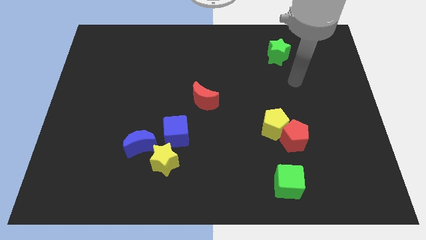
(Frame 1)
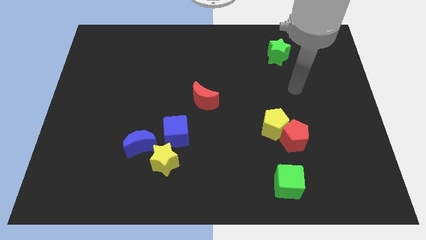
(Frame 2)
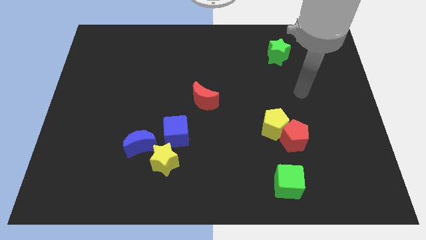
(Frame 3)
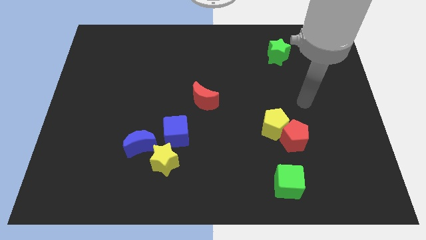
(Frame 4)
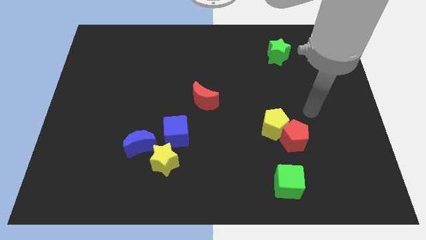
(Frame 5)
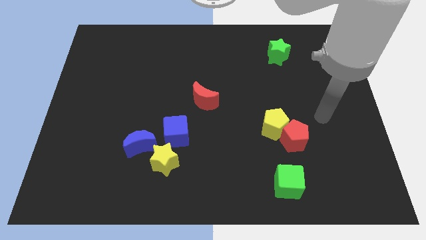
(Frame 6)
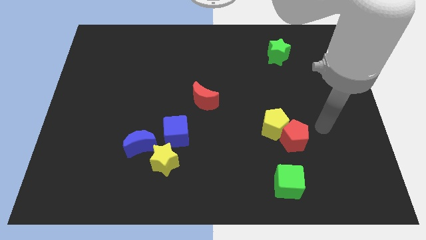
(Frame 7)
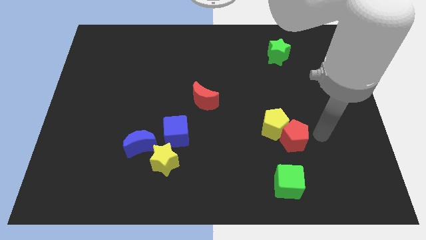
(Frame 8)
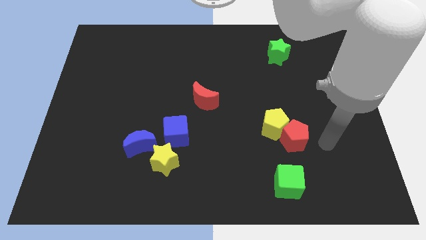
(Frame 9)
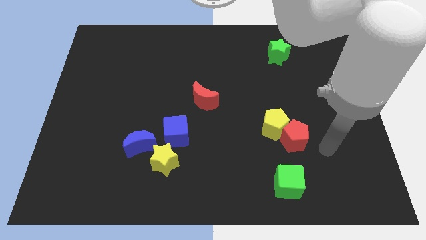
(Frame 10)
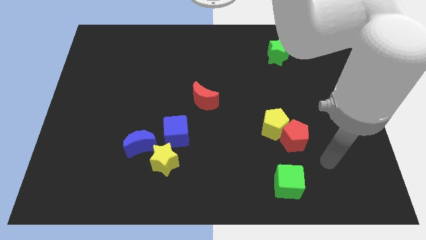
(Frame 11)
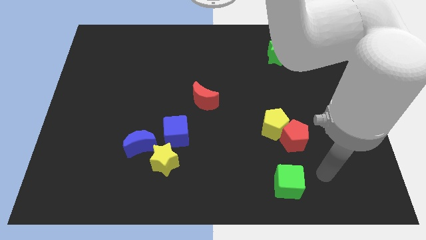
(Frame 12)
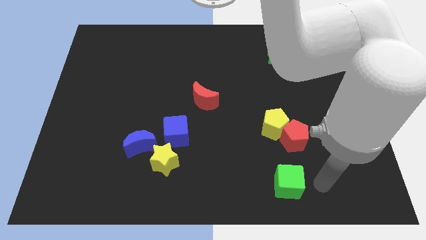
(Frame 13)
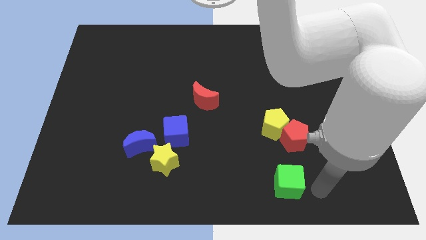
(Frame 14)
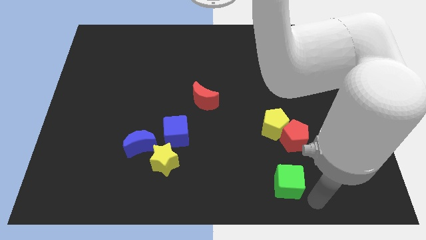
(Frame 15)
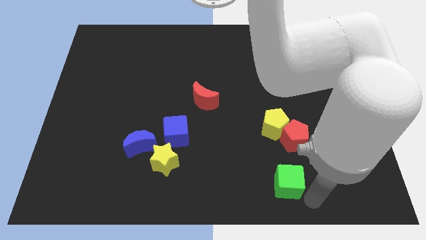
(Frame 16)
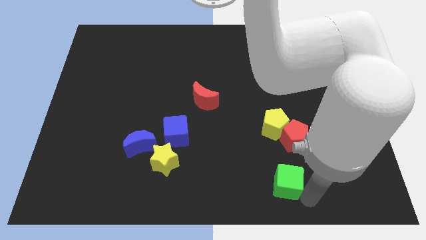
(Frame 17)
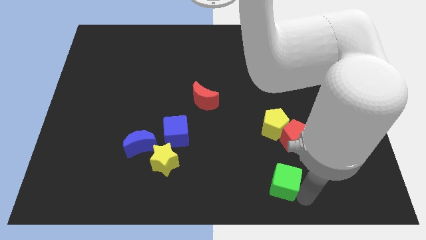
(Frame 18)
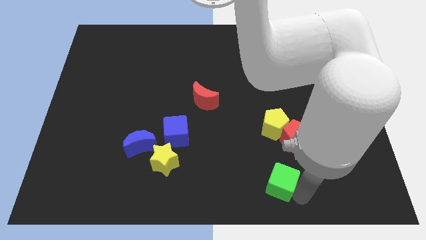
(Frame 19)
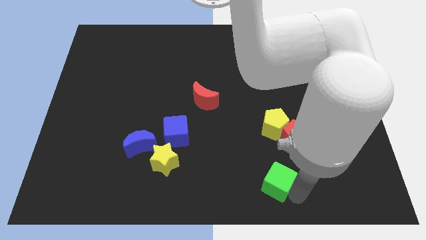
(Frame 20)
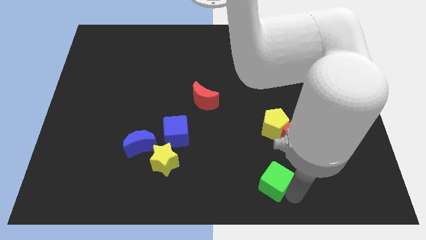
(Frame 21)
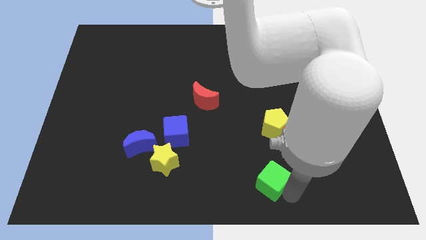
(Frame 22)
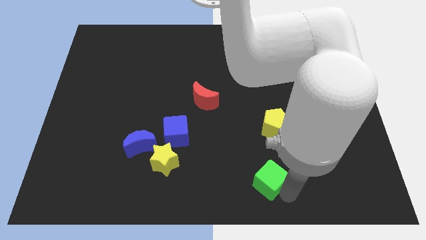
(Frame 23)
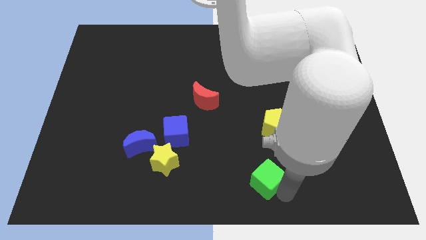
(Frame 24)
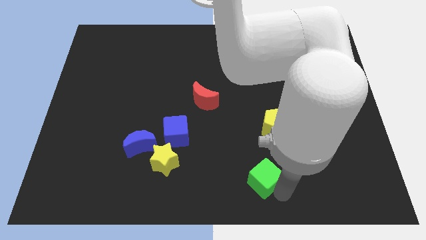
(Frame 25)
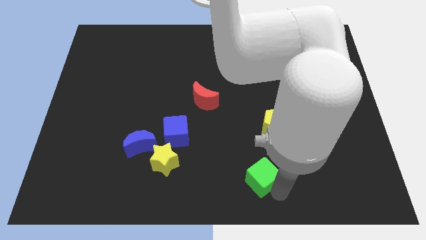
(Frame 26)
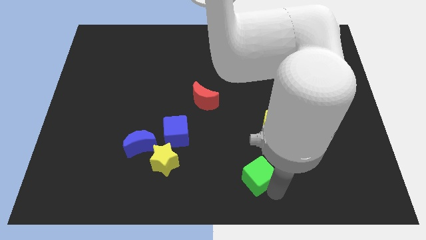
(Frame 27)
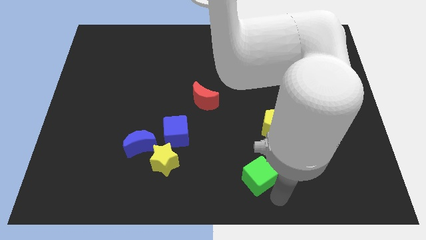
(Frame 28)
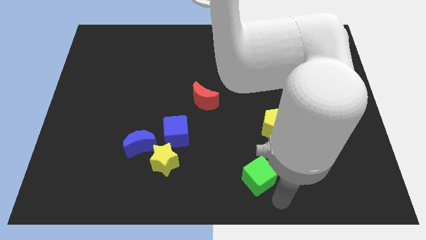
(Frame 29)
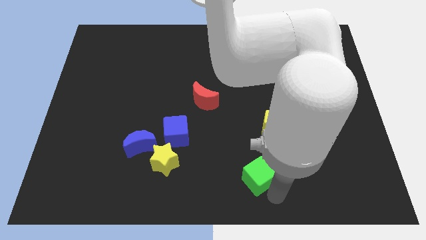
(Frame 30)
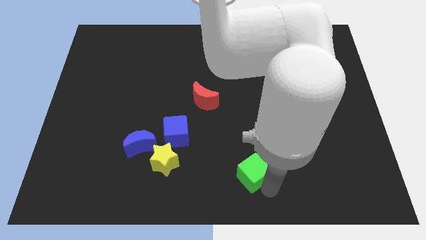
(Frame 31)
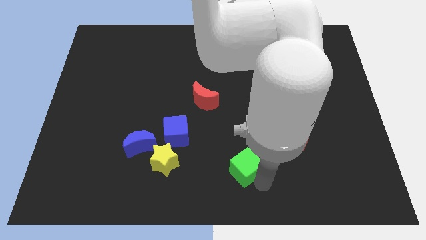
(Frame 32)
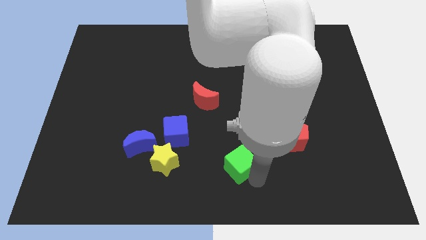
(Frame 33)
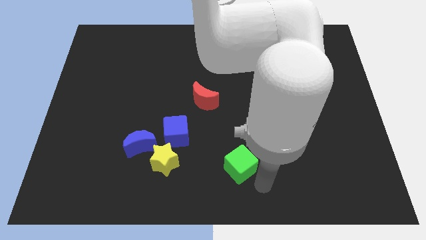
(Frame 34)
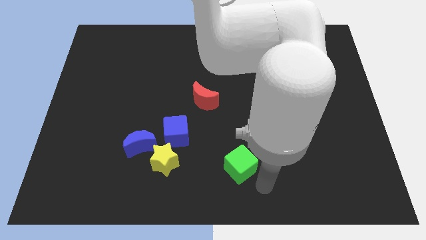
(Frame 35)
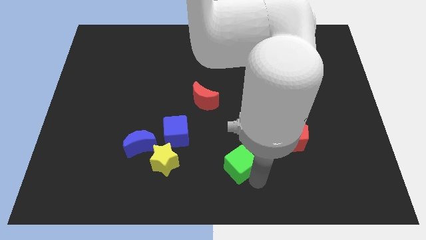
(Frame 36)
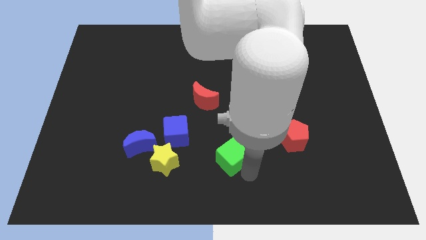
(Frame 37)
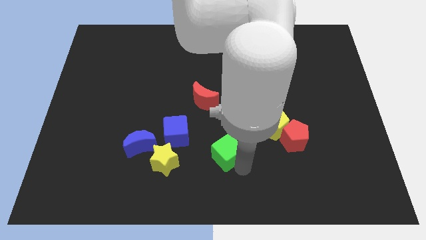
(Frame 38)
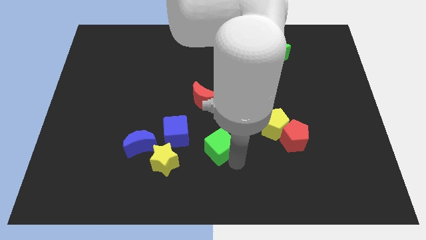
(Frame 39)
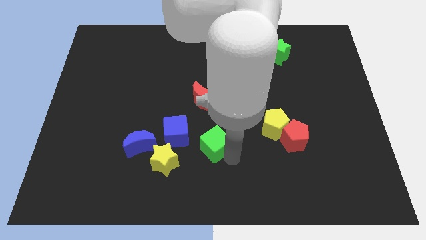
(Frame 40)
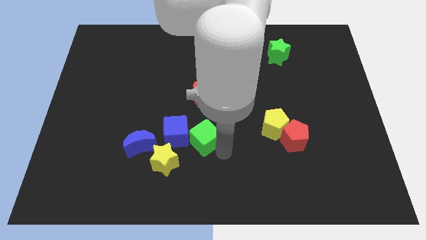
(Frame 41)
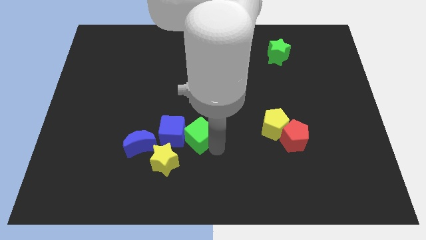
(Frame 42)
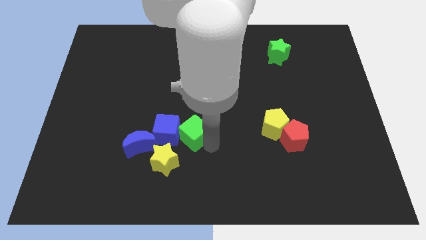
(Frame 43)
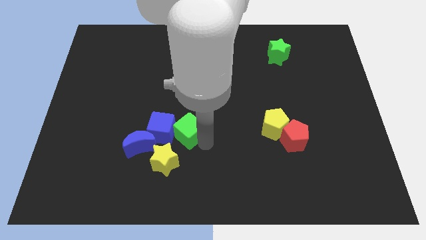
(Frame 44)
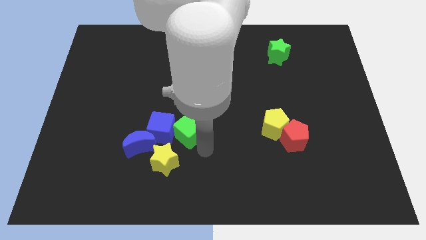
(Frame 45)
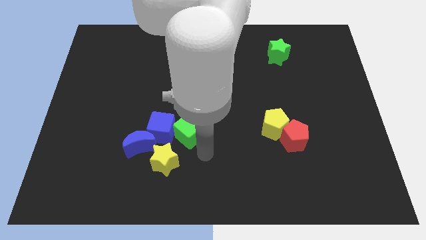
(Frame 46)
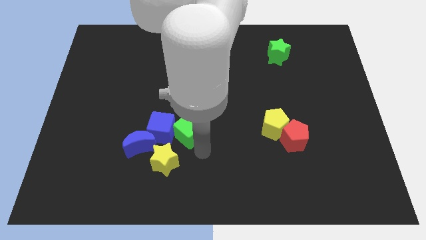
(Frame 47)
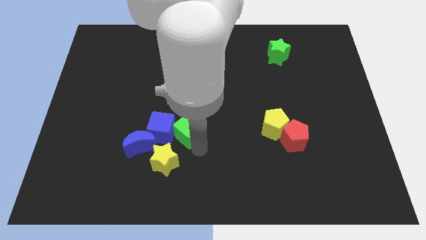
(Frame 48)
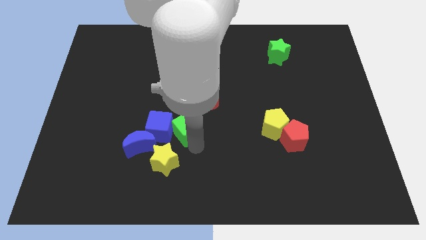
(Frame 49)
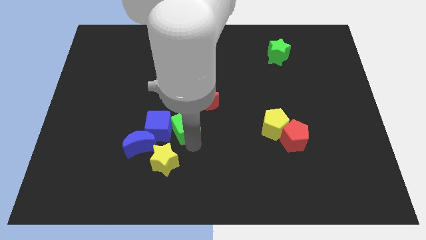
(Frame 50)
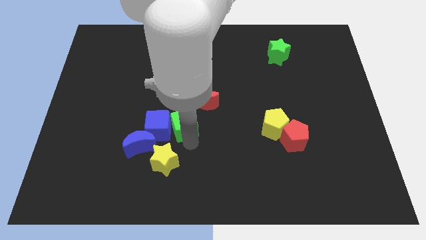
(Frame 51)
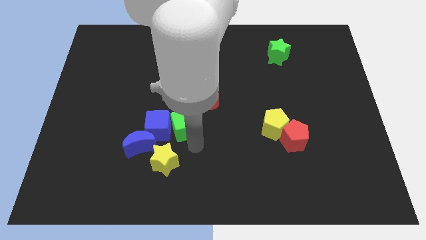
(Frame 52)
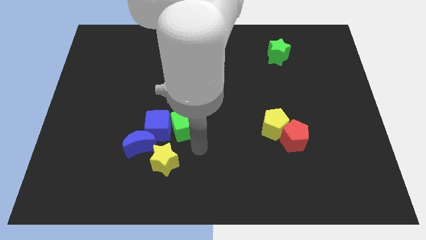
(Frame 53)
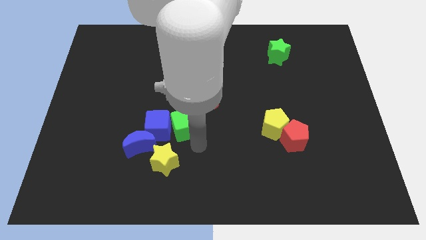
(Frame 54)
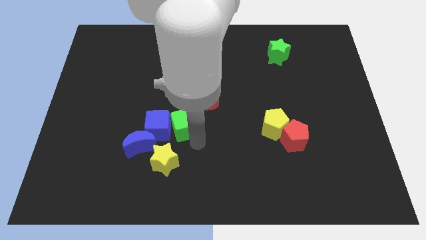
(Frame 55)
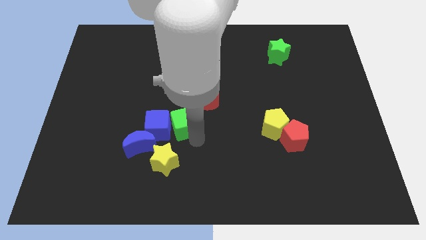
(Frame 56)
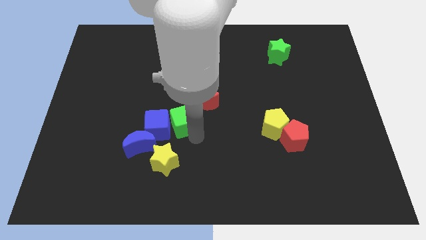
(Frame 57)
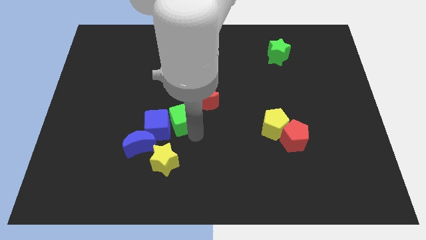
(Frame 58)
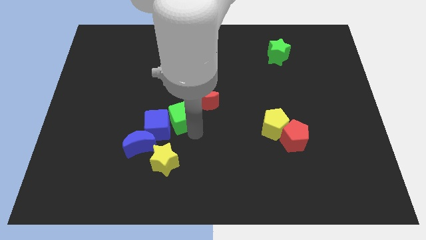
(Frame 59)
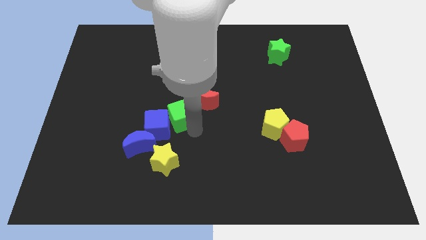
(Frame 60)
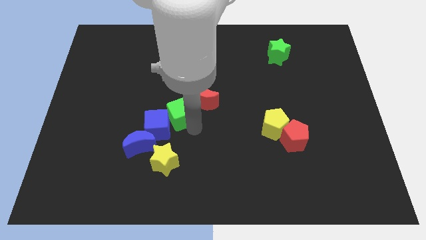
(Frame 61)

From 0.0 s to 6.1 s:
push the green cube to the left of the red moon

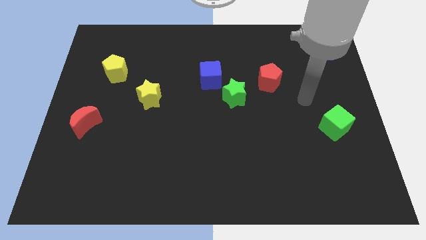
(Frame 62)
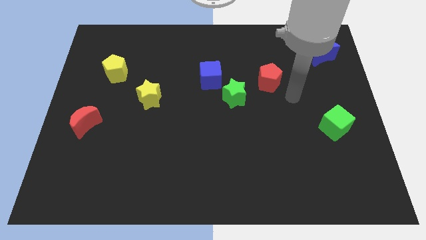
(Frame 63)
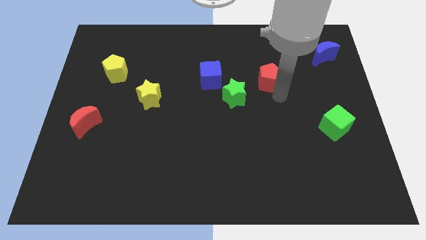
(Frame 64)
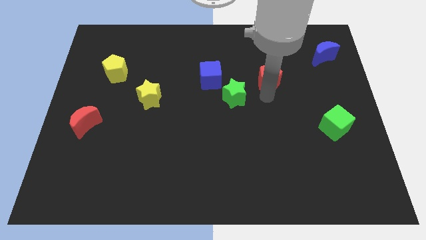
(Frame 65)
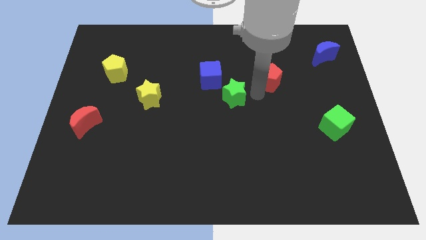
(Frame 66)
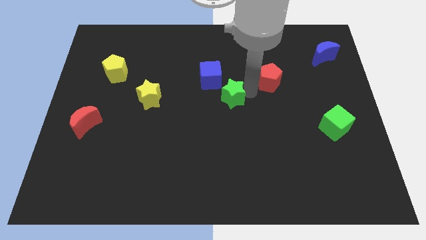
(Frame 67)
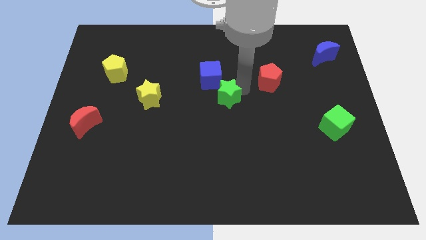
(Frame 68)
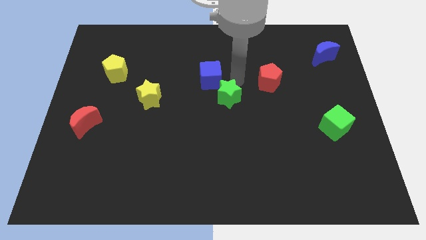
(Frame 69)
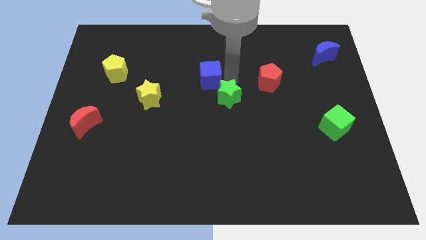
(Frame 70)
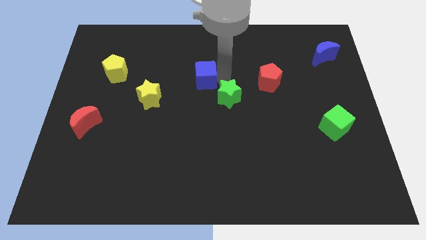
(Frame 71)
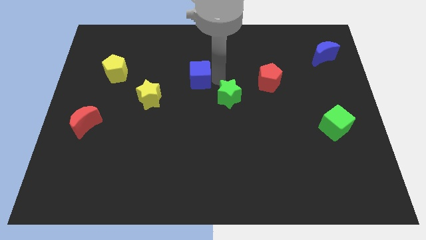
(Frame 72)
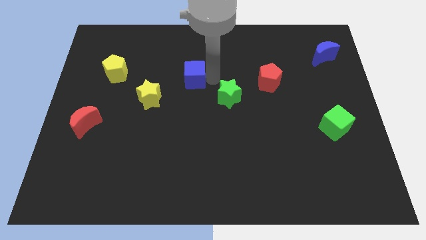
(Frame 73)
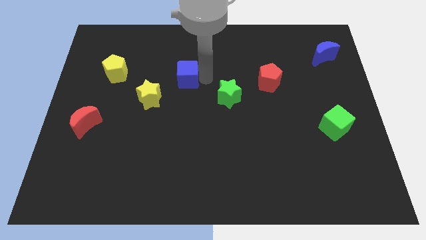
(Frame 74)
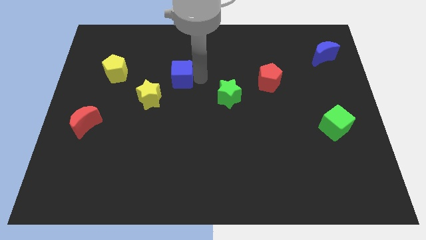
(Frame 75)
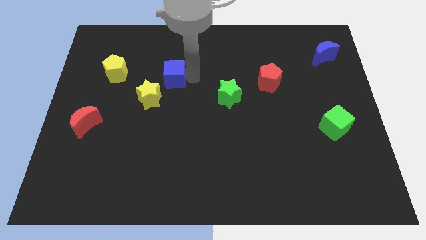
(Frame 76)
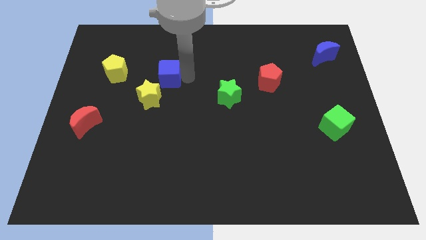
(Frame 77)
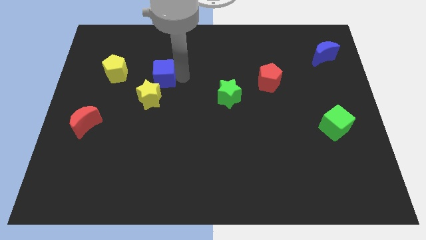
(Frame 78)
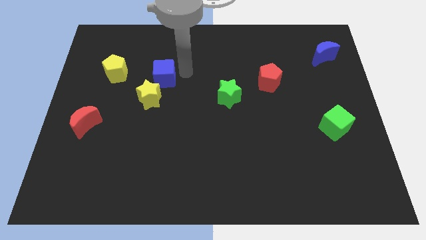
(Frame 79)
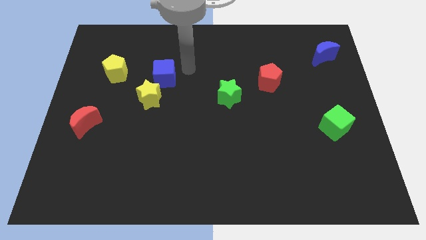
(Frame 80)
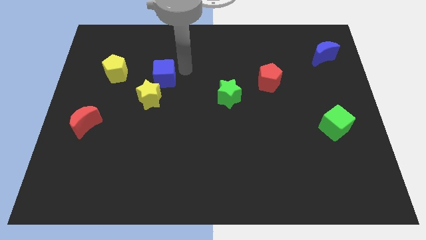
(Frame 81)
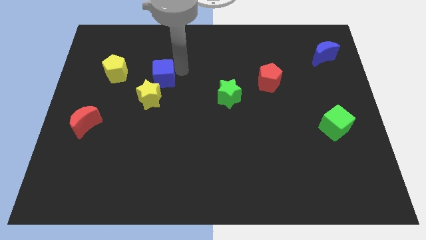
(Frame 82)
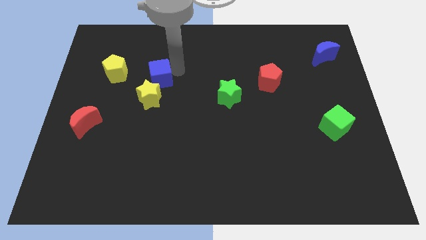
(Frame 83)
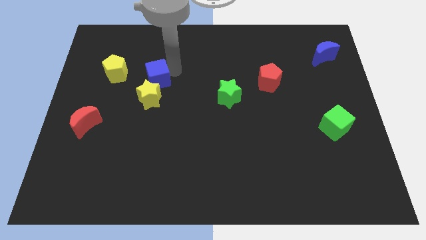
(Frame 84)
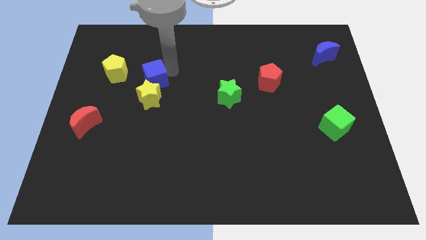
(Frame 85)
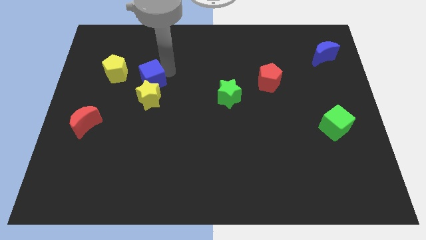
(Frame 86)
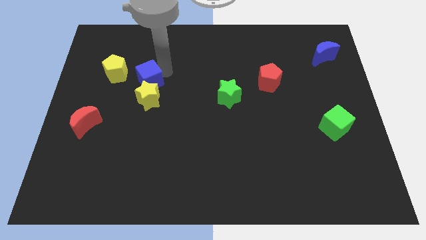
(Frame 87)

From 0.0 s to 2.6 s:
slide the blue cube to the bottom right of the yellow pentagon
